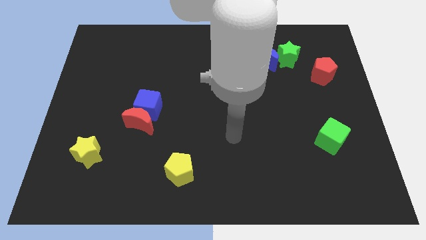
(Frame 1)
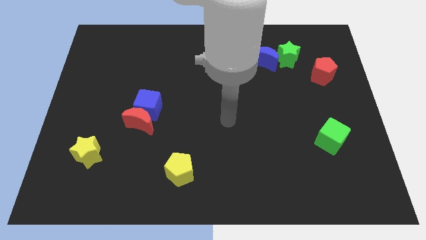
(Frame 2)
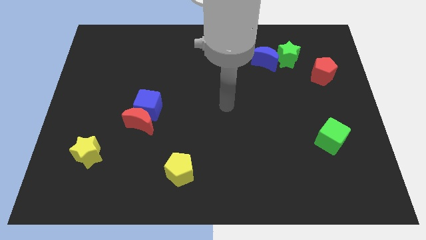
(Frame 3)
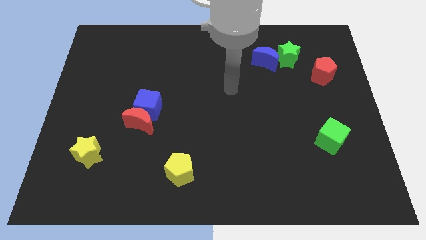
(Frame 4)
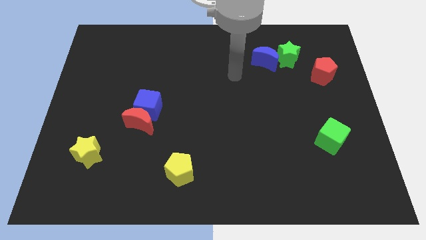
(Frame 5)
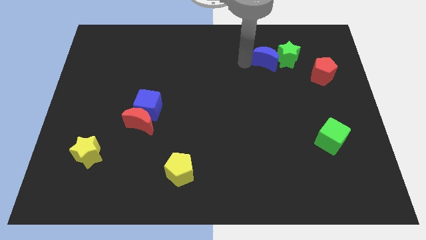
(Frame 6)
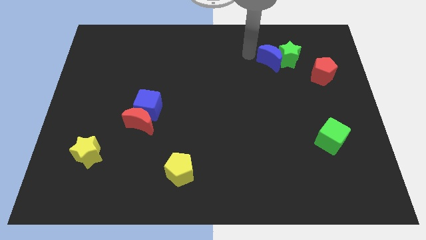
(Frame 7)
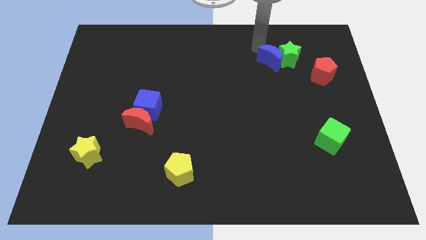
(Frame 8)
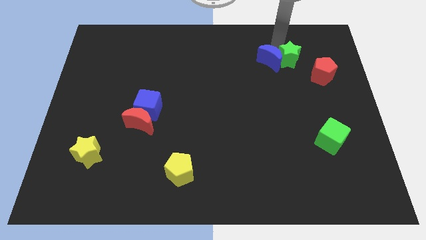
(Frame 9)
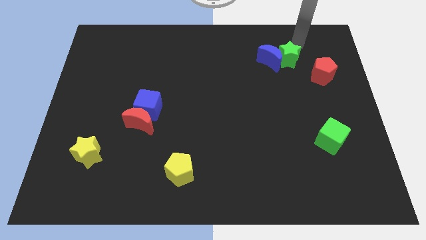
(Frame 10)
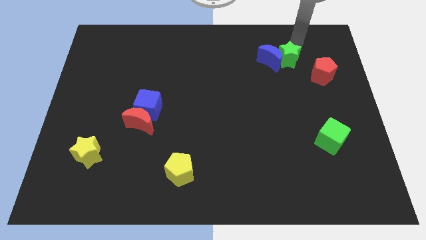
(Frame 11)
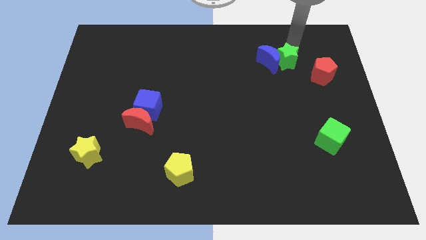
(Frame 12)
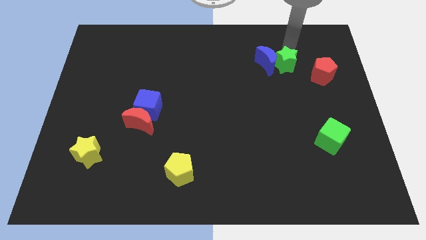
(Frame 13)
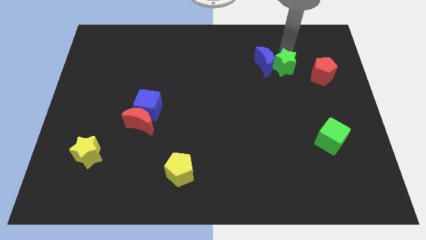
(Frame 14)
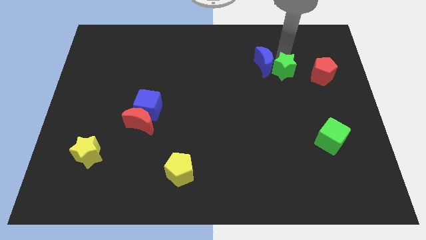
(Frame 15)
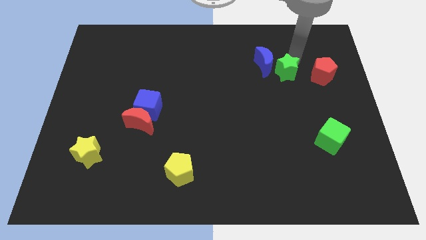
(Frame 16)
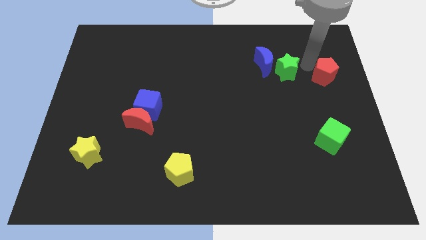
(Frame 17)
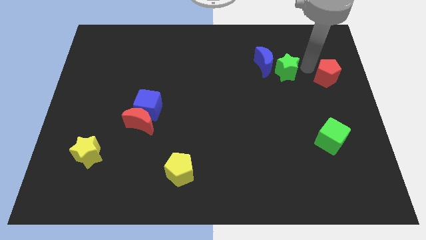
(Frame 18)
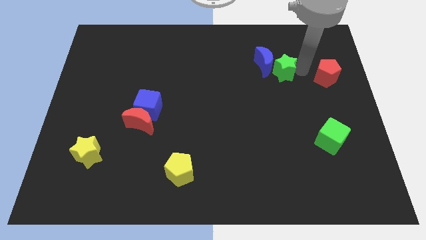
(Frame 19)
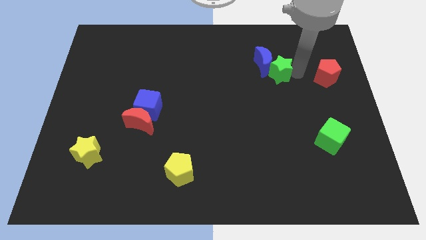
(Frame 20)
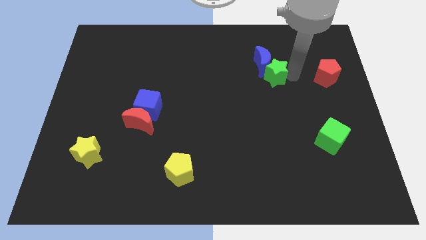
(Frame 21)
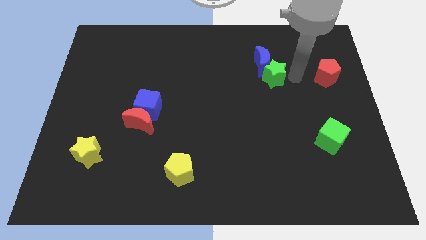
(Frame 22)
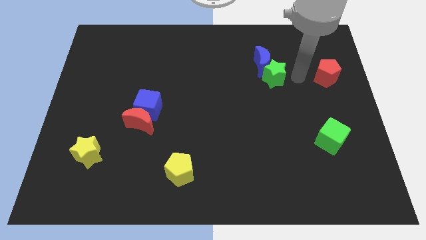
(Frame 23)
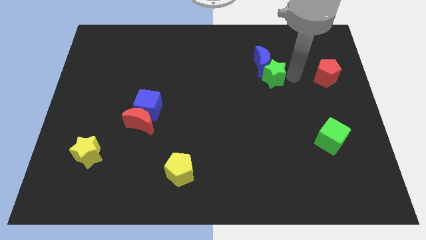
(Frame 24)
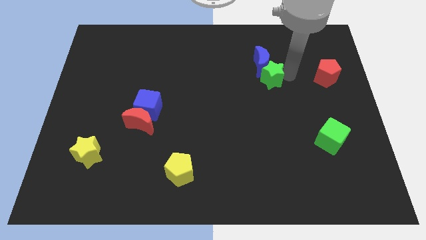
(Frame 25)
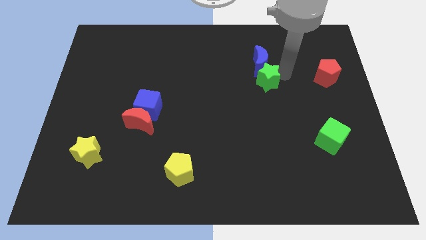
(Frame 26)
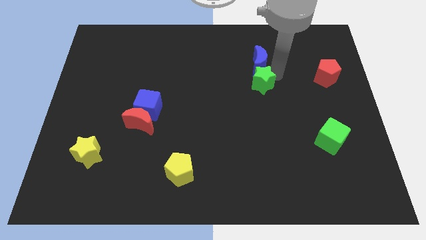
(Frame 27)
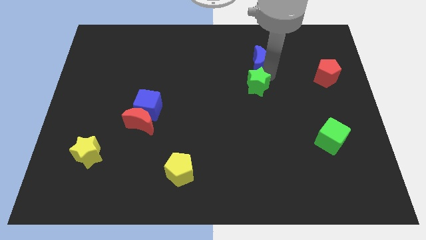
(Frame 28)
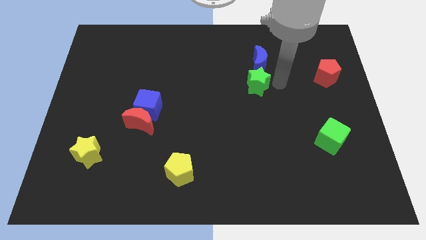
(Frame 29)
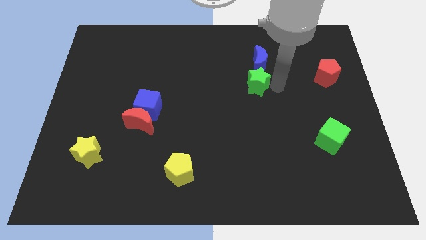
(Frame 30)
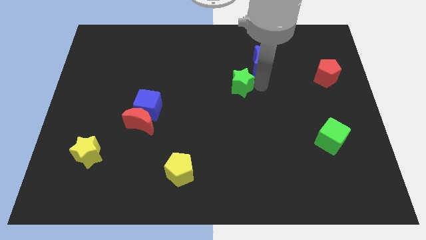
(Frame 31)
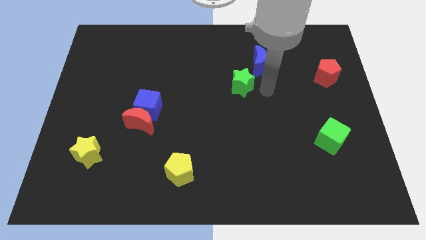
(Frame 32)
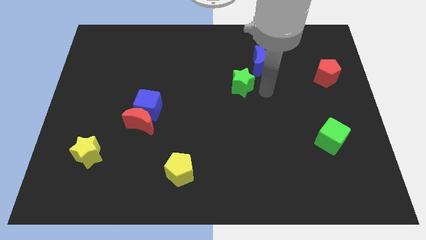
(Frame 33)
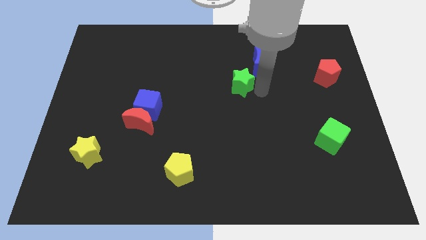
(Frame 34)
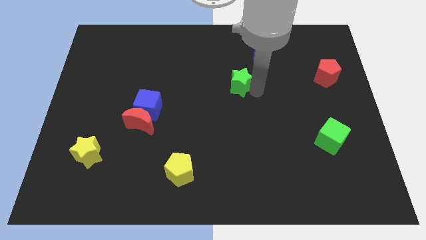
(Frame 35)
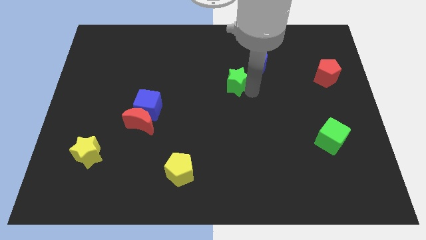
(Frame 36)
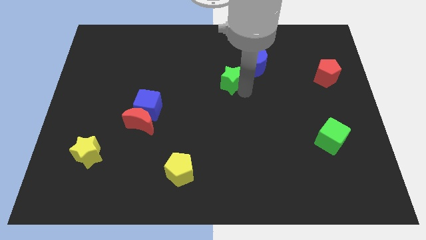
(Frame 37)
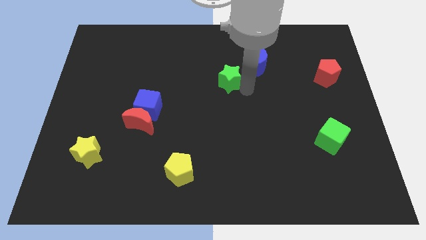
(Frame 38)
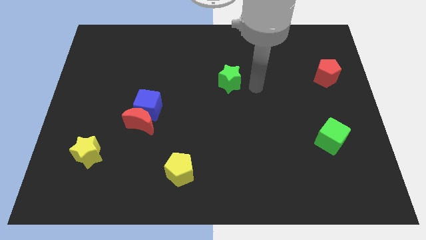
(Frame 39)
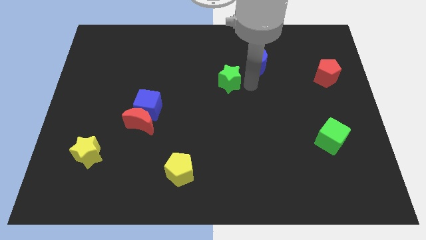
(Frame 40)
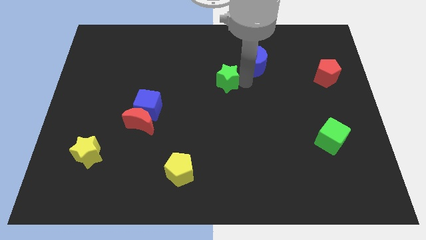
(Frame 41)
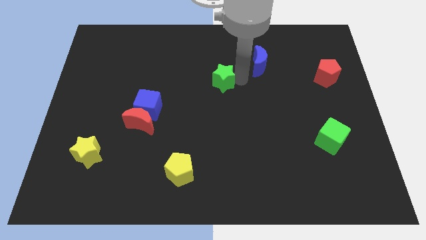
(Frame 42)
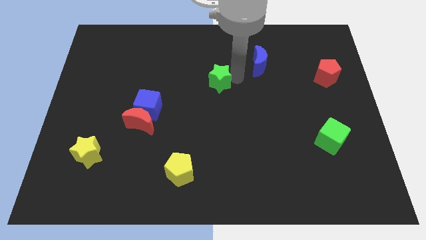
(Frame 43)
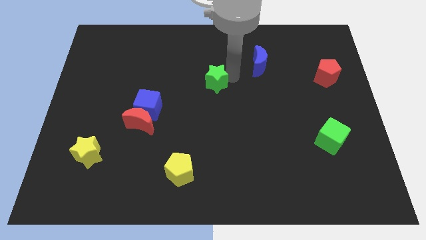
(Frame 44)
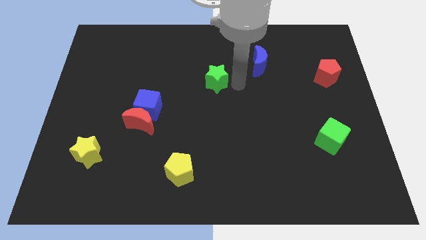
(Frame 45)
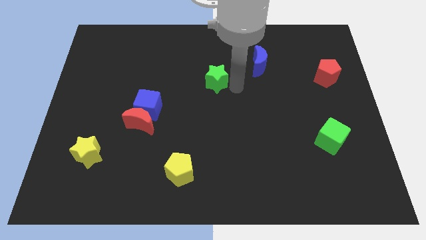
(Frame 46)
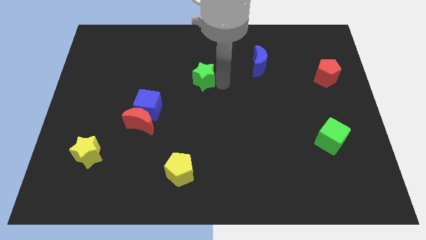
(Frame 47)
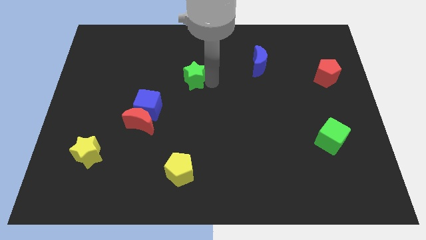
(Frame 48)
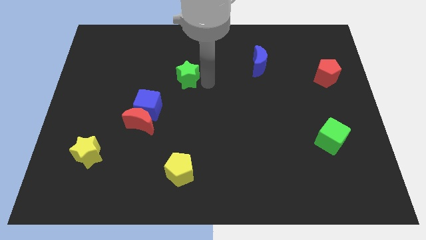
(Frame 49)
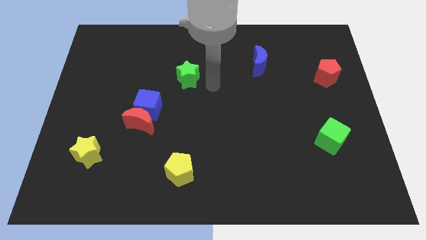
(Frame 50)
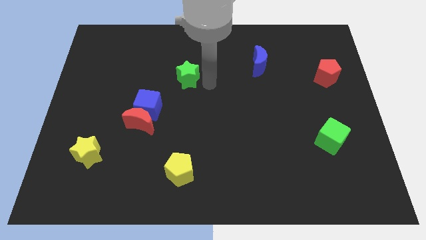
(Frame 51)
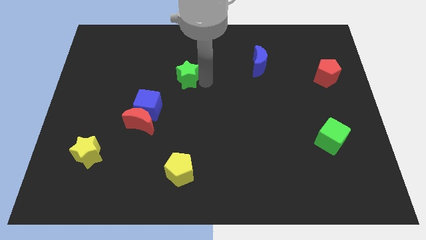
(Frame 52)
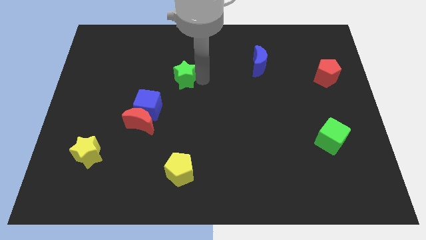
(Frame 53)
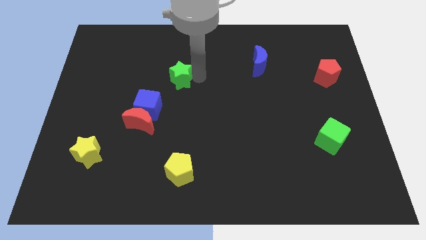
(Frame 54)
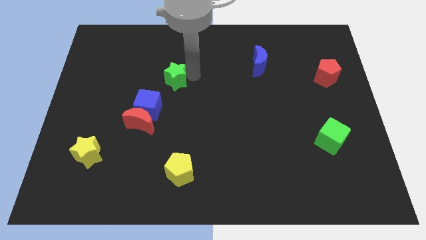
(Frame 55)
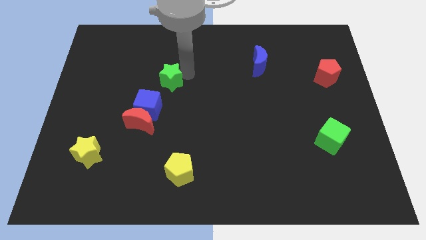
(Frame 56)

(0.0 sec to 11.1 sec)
move the green star above the blue cube

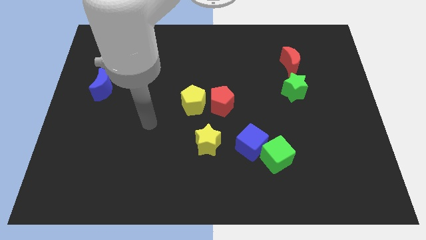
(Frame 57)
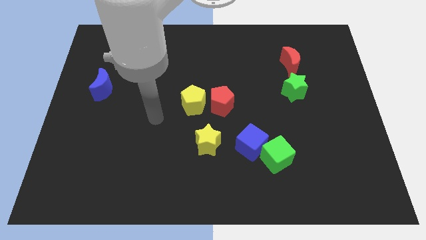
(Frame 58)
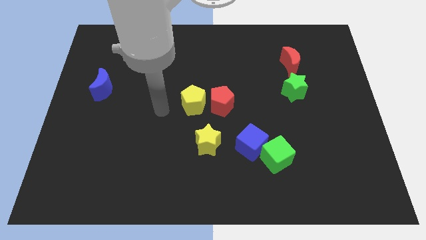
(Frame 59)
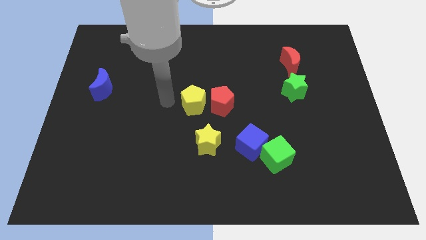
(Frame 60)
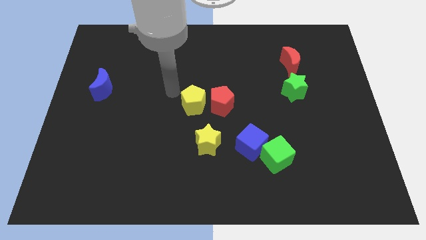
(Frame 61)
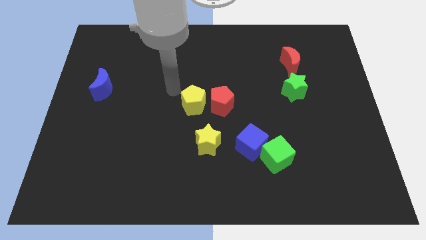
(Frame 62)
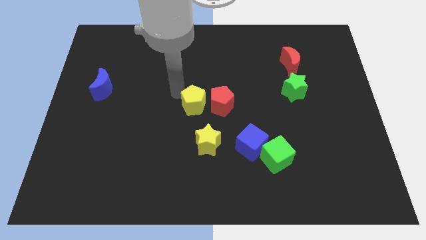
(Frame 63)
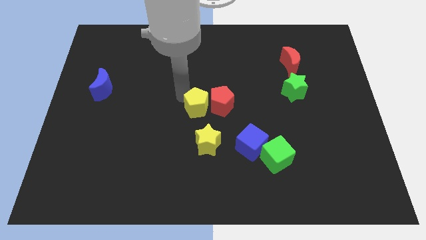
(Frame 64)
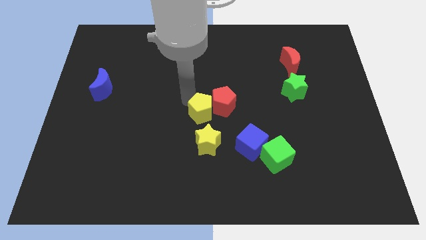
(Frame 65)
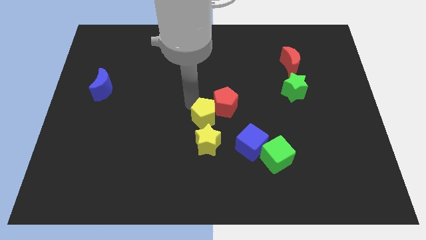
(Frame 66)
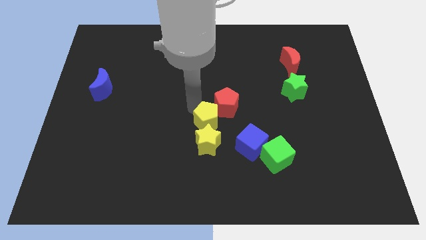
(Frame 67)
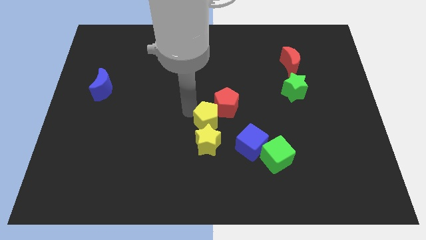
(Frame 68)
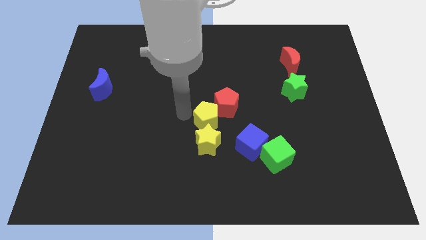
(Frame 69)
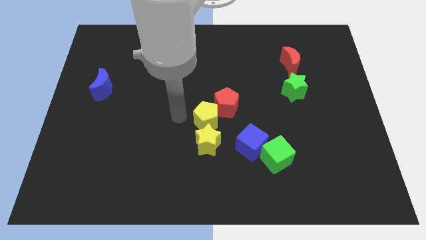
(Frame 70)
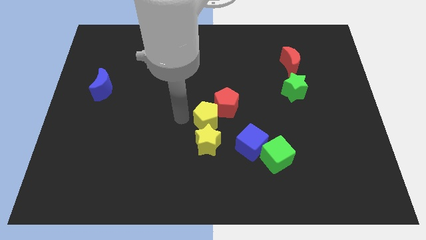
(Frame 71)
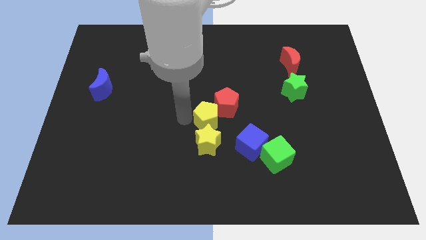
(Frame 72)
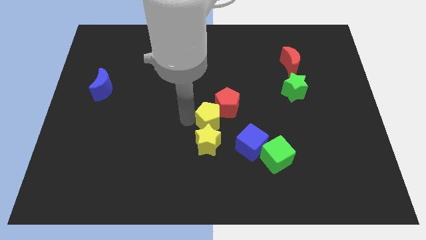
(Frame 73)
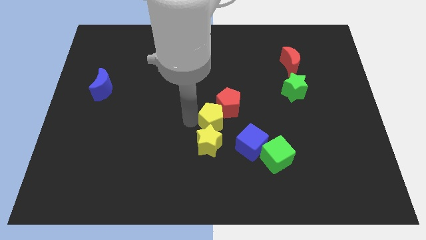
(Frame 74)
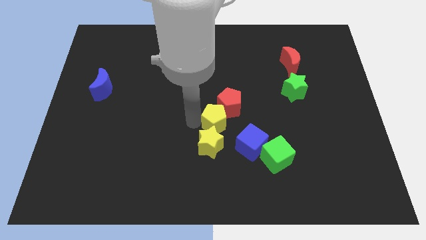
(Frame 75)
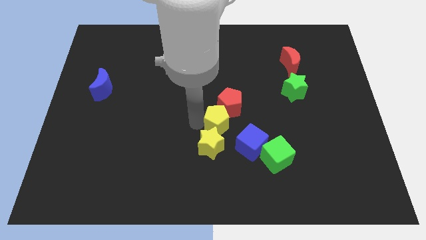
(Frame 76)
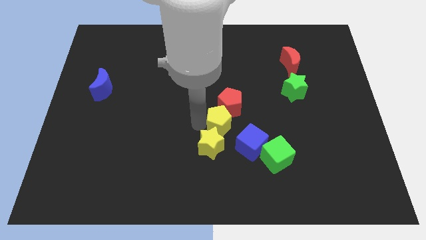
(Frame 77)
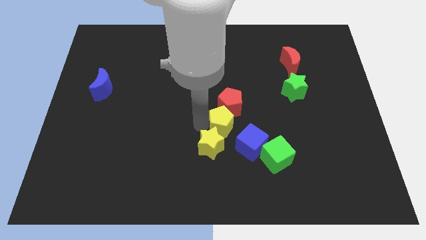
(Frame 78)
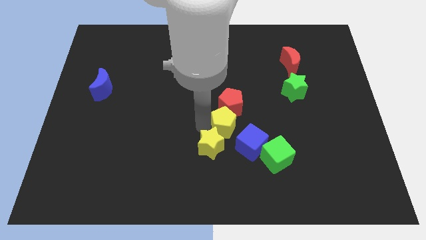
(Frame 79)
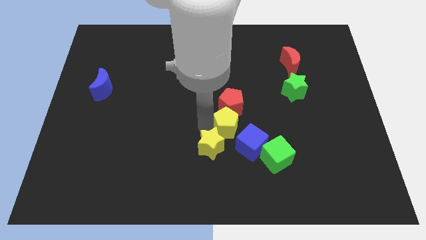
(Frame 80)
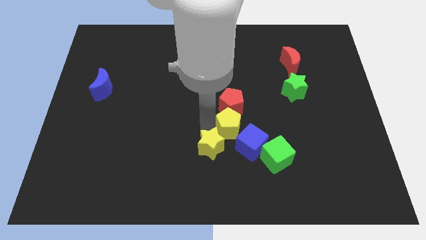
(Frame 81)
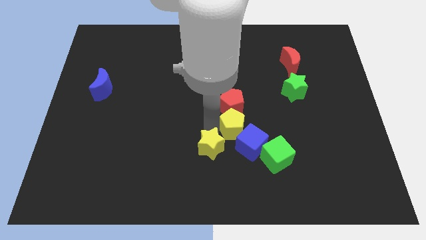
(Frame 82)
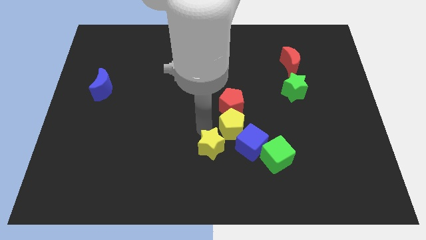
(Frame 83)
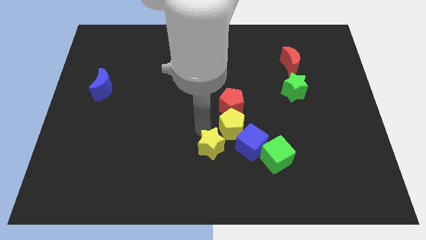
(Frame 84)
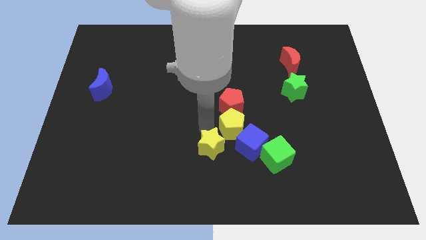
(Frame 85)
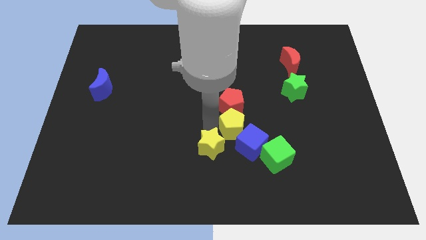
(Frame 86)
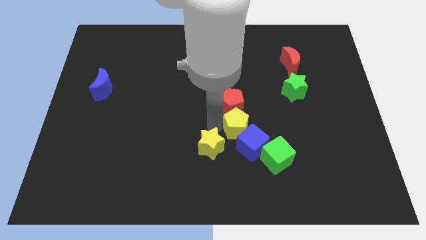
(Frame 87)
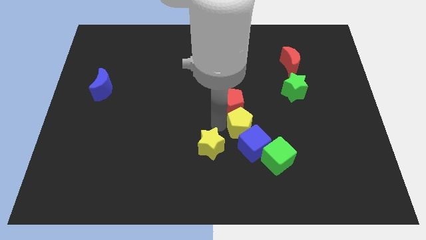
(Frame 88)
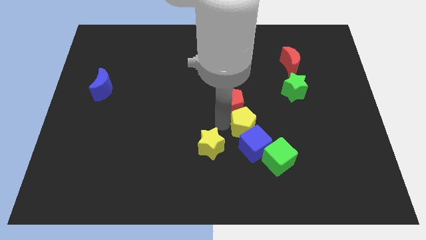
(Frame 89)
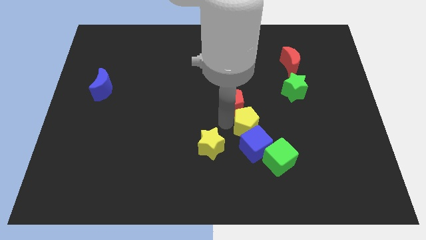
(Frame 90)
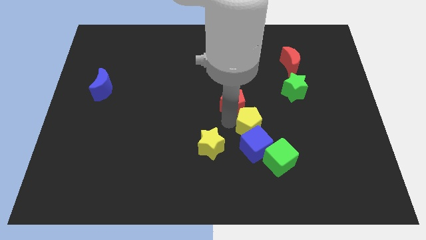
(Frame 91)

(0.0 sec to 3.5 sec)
slide the yellow pentagon to the top right of the blue cube
